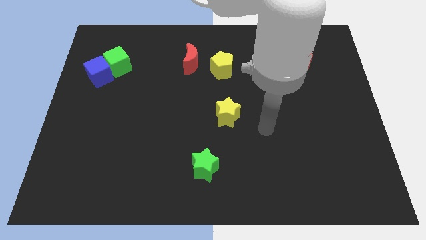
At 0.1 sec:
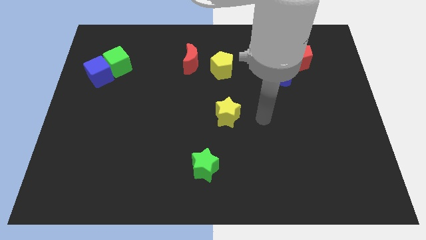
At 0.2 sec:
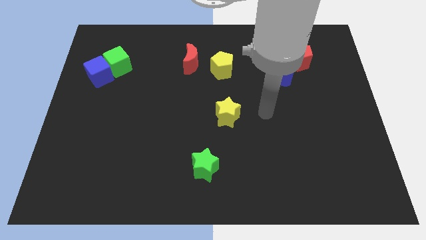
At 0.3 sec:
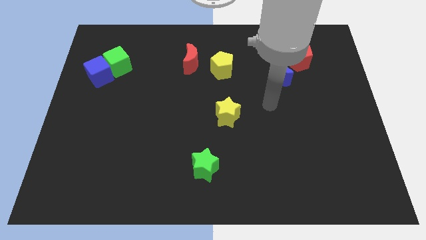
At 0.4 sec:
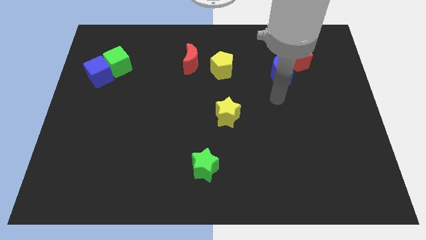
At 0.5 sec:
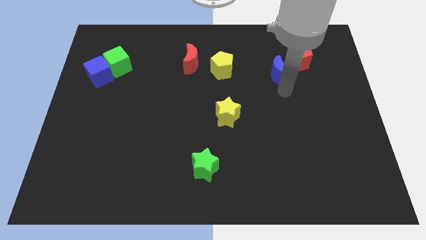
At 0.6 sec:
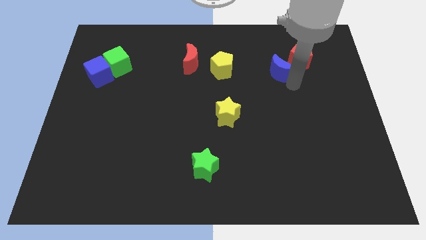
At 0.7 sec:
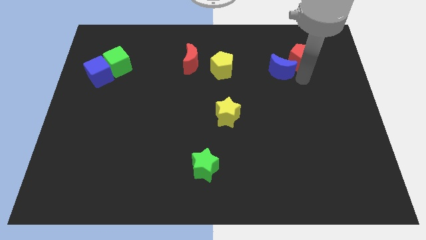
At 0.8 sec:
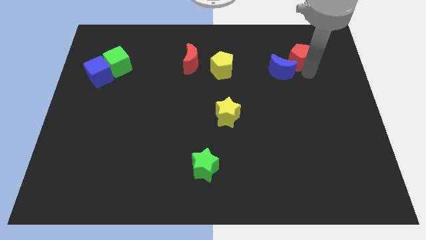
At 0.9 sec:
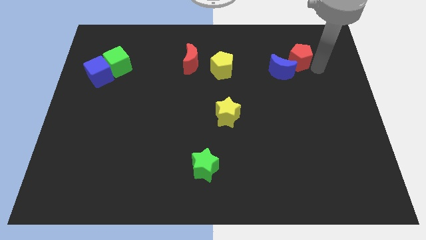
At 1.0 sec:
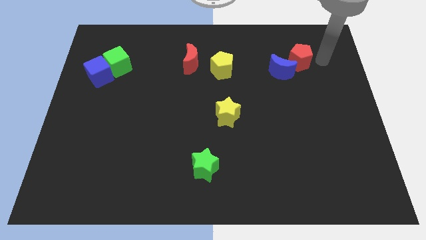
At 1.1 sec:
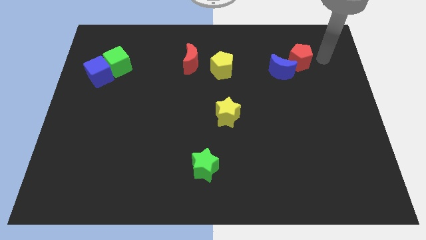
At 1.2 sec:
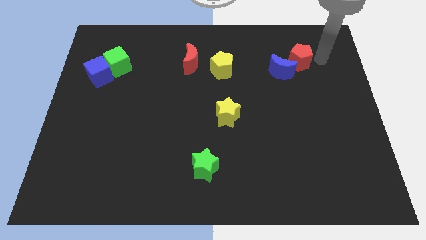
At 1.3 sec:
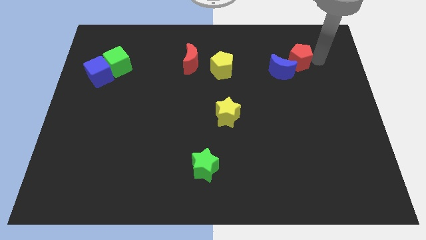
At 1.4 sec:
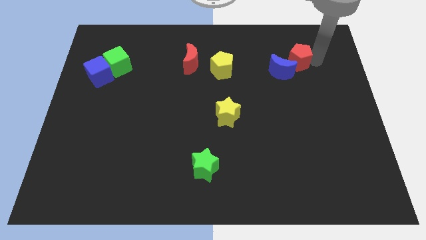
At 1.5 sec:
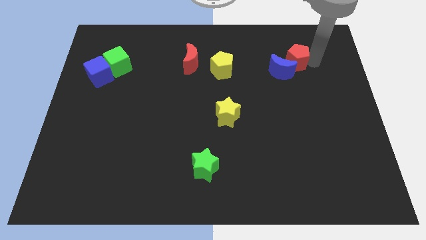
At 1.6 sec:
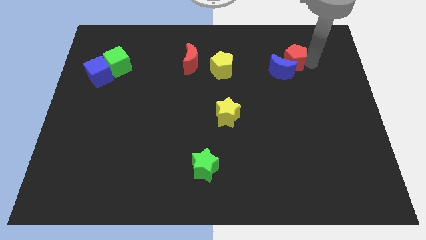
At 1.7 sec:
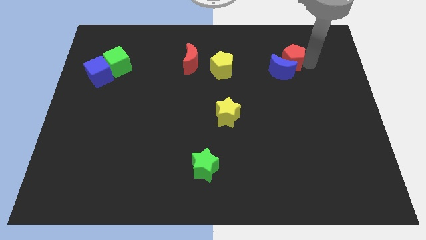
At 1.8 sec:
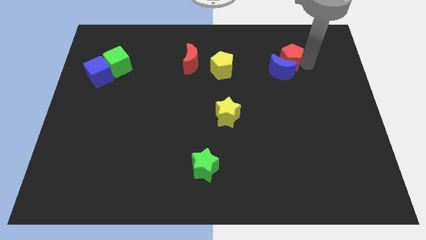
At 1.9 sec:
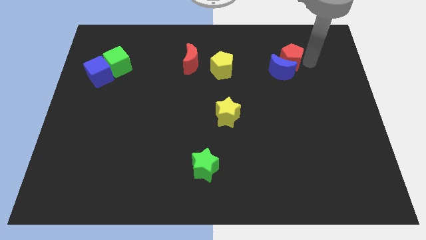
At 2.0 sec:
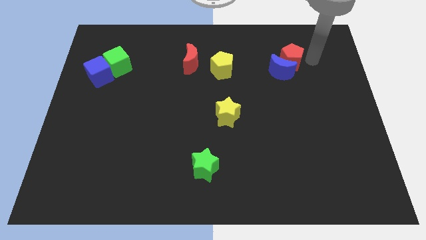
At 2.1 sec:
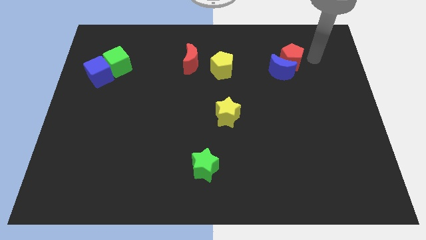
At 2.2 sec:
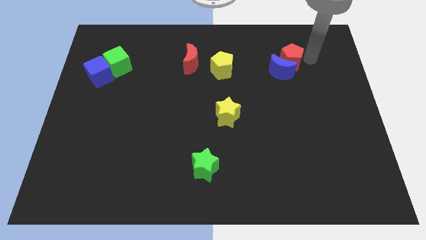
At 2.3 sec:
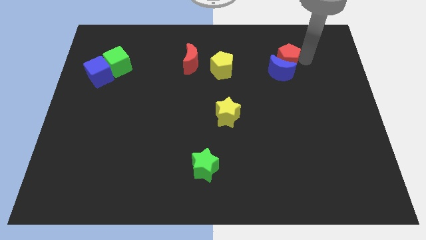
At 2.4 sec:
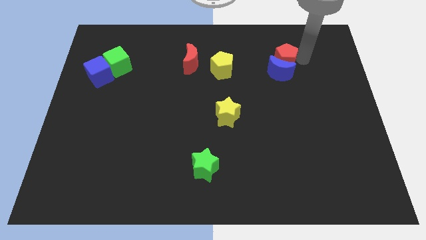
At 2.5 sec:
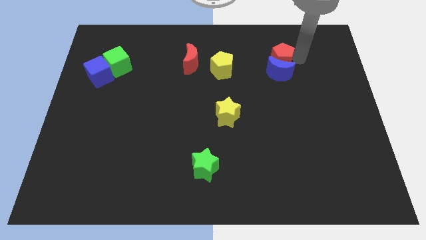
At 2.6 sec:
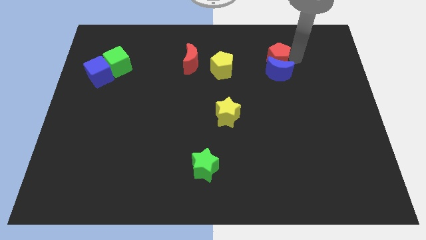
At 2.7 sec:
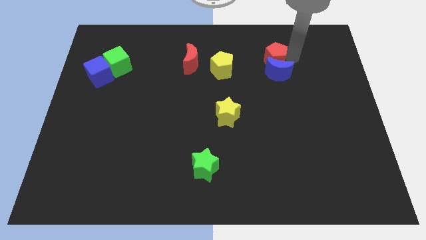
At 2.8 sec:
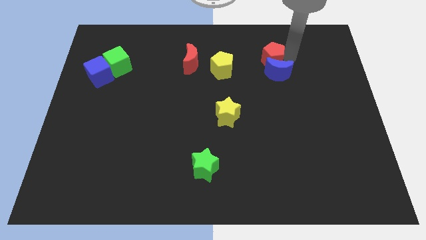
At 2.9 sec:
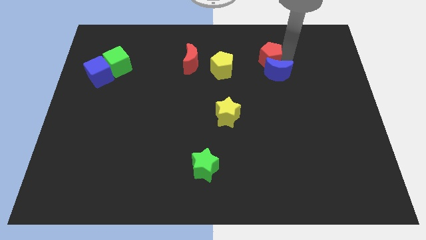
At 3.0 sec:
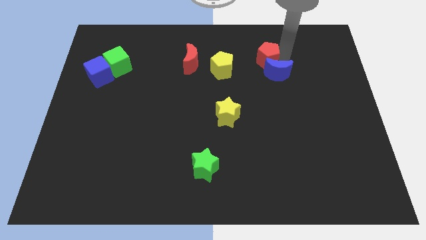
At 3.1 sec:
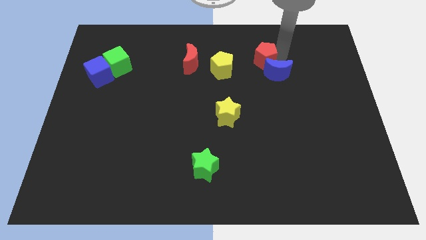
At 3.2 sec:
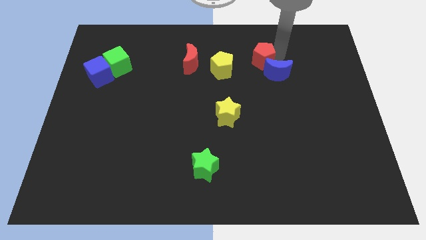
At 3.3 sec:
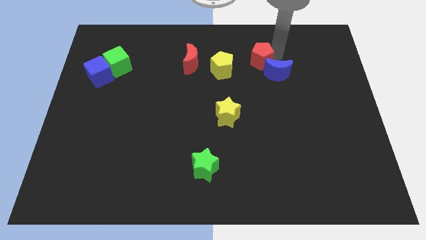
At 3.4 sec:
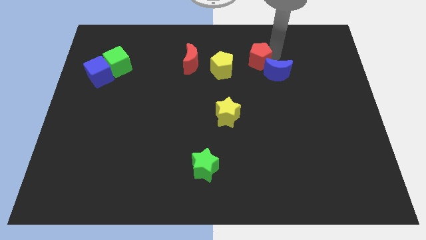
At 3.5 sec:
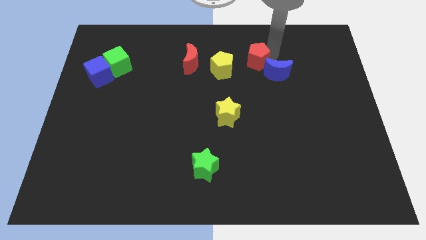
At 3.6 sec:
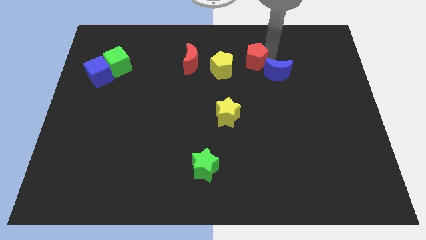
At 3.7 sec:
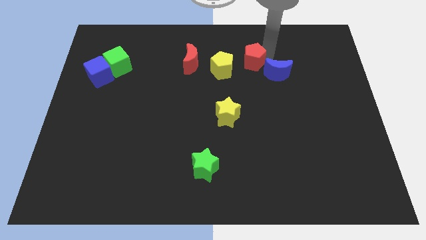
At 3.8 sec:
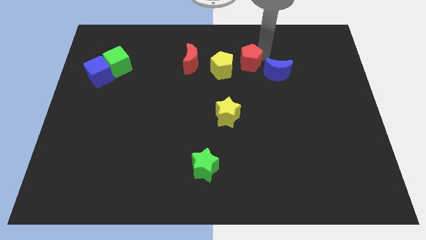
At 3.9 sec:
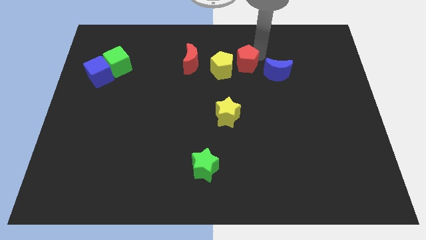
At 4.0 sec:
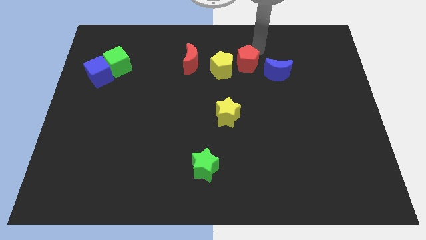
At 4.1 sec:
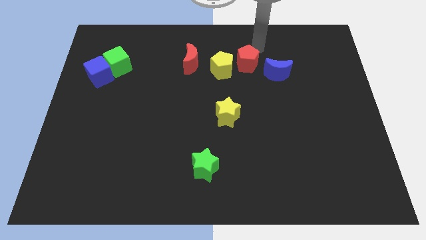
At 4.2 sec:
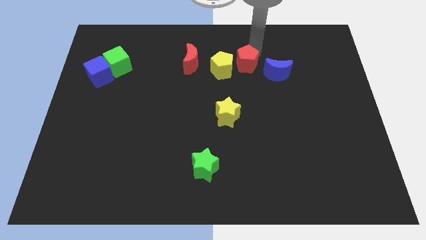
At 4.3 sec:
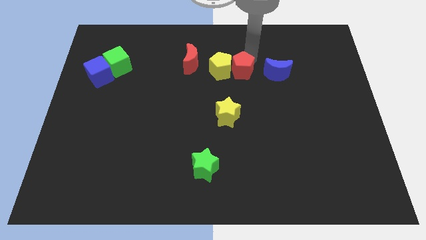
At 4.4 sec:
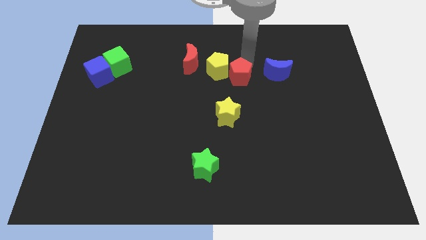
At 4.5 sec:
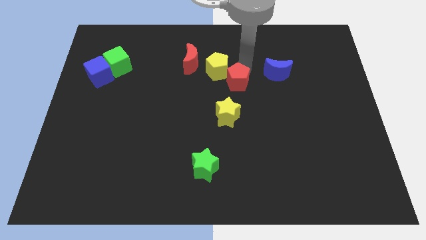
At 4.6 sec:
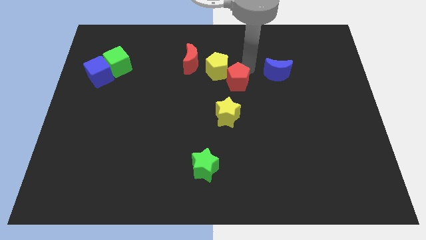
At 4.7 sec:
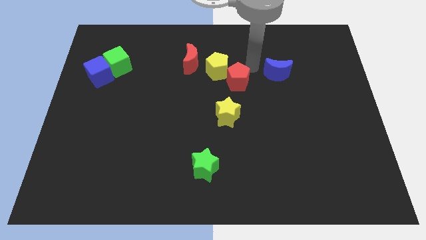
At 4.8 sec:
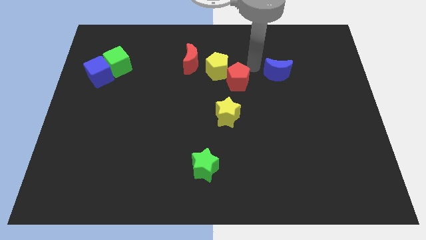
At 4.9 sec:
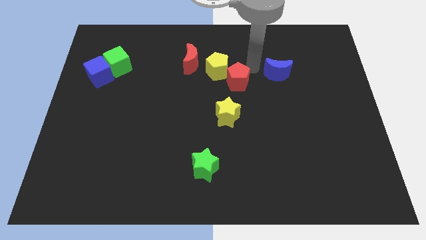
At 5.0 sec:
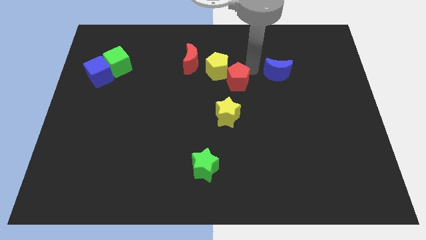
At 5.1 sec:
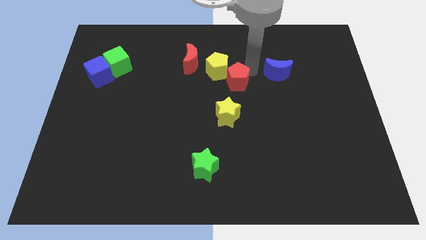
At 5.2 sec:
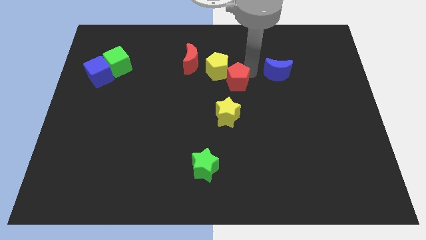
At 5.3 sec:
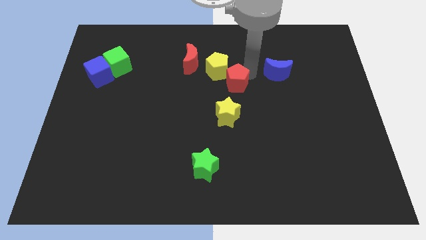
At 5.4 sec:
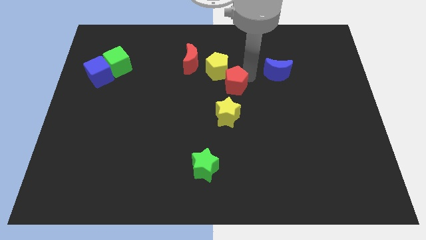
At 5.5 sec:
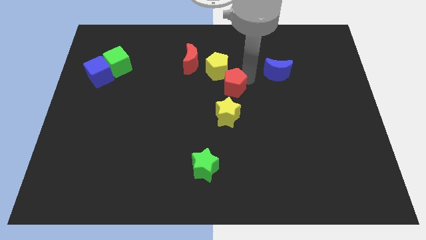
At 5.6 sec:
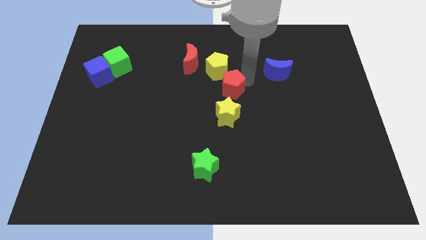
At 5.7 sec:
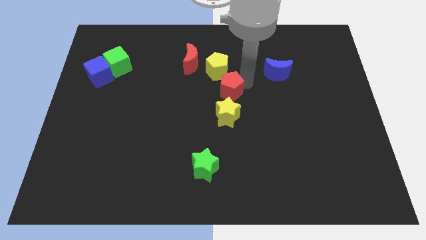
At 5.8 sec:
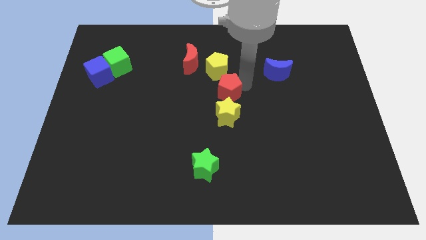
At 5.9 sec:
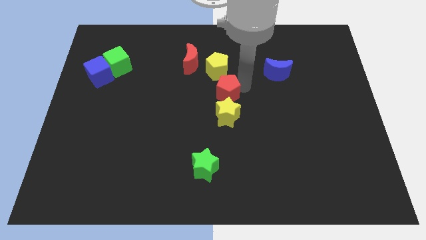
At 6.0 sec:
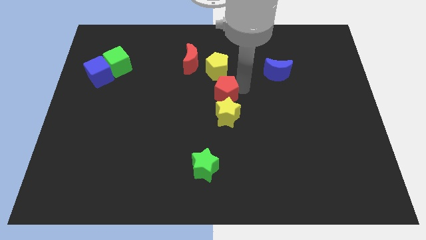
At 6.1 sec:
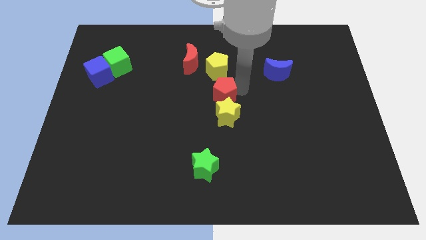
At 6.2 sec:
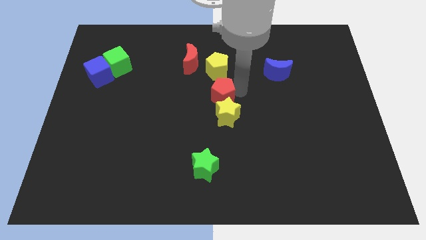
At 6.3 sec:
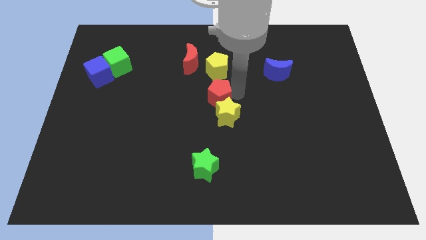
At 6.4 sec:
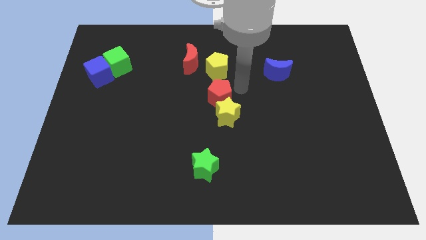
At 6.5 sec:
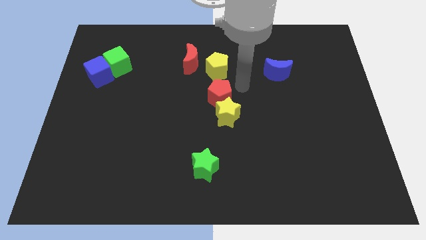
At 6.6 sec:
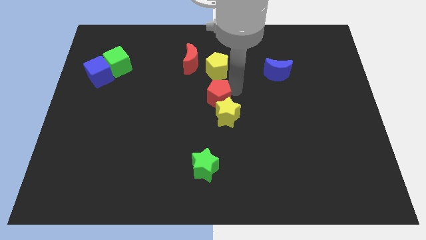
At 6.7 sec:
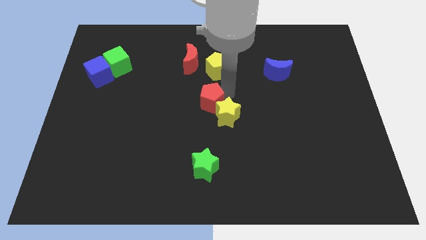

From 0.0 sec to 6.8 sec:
slide the red pentagon just left of the yellow star

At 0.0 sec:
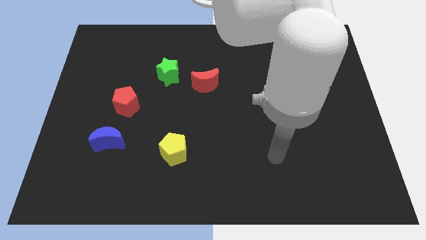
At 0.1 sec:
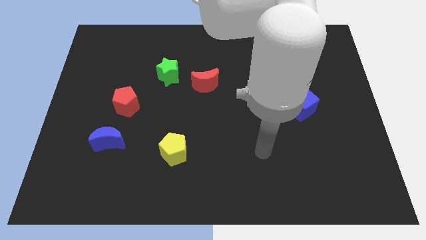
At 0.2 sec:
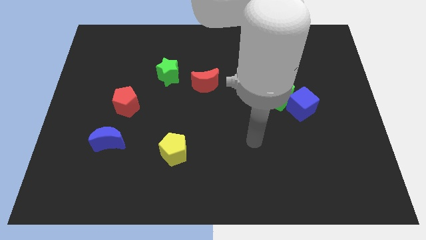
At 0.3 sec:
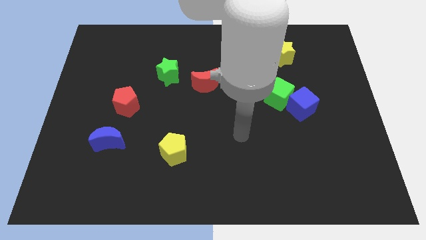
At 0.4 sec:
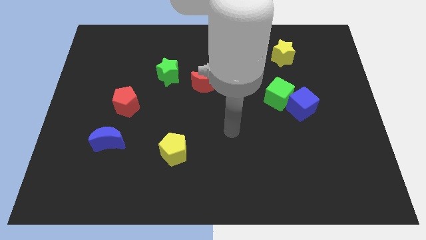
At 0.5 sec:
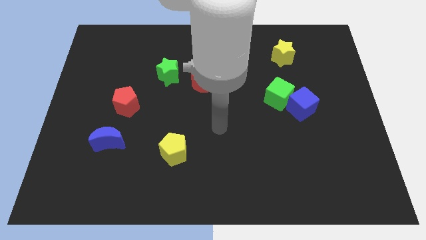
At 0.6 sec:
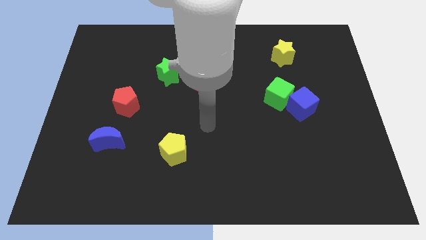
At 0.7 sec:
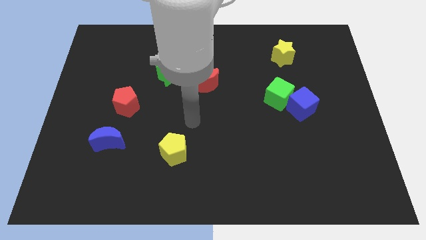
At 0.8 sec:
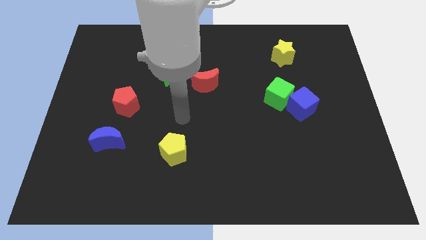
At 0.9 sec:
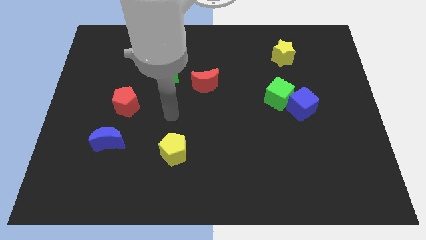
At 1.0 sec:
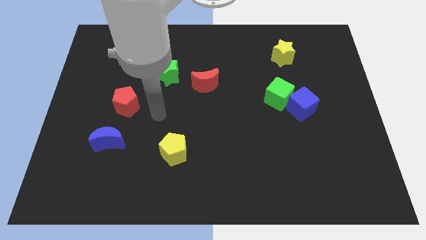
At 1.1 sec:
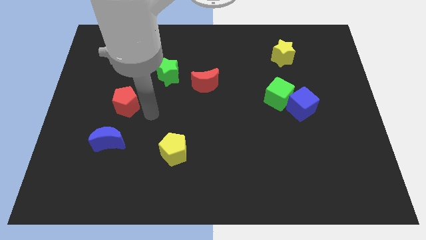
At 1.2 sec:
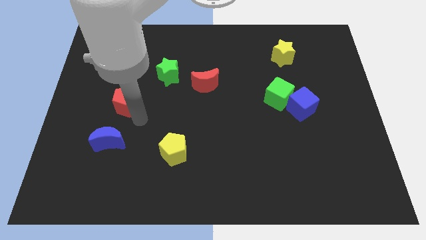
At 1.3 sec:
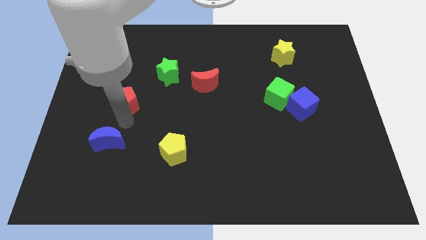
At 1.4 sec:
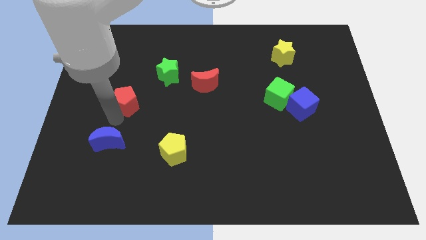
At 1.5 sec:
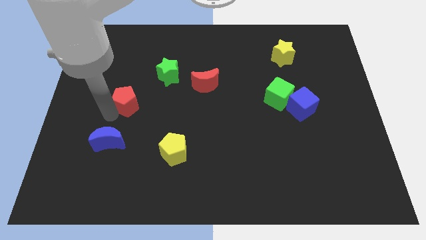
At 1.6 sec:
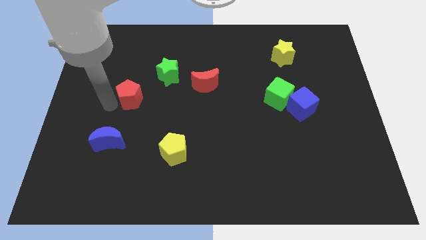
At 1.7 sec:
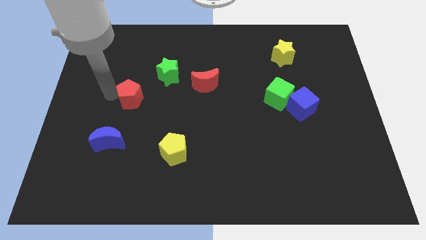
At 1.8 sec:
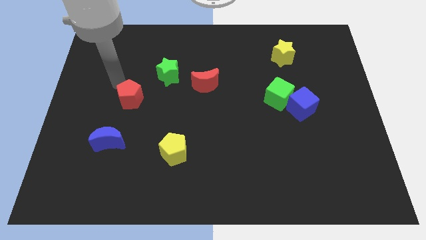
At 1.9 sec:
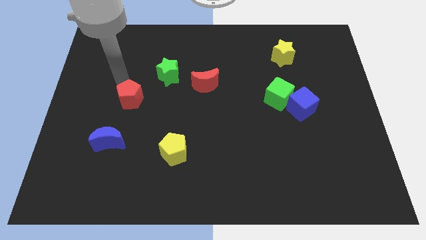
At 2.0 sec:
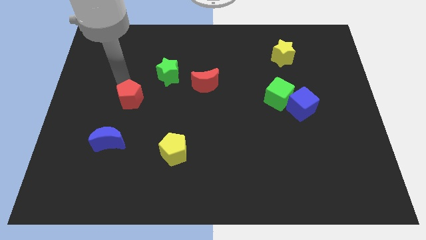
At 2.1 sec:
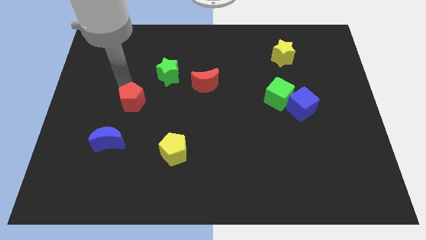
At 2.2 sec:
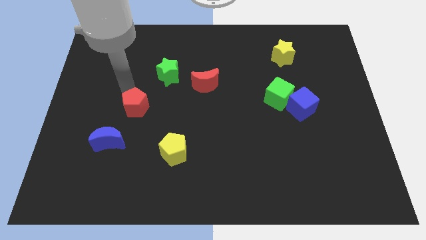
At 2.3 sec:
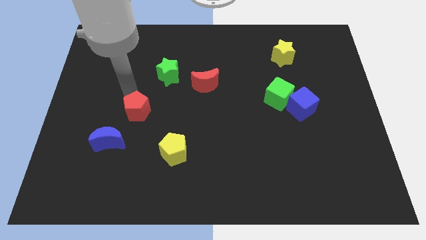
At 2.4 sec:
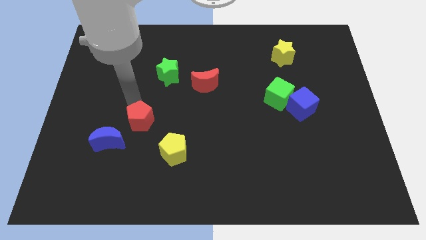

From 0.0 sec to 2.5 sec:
put the red pentagon diagonally up and to the left of the yellow pentagon
